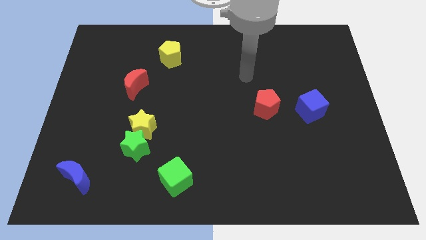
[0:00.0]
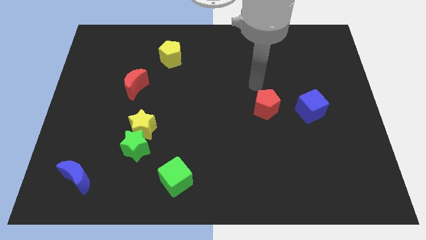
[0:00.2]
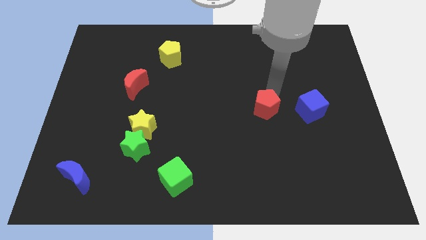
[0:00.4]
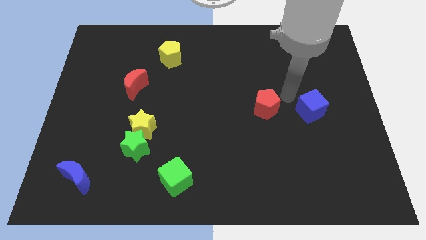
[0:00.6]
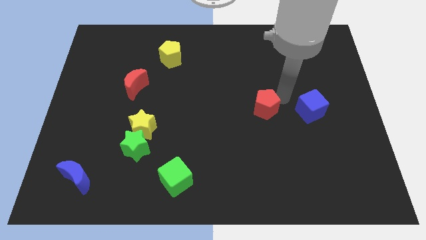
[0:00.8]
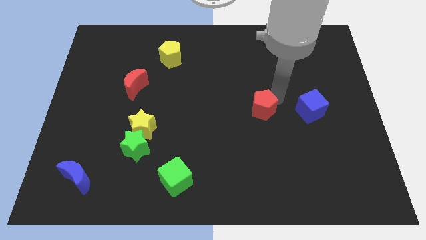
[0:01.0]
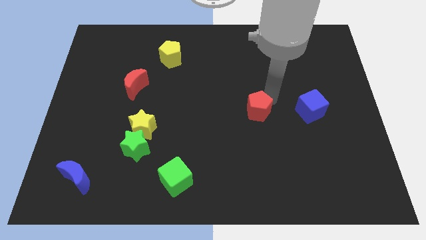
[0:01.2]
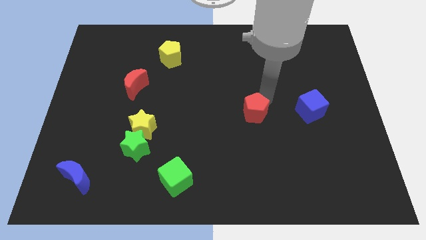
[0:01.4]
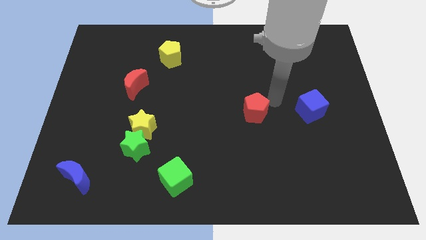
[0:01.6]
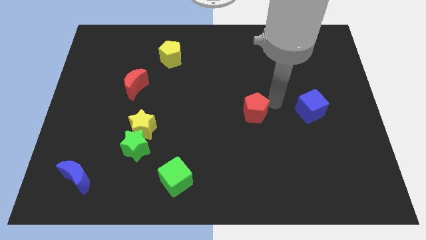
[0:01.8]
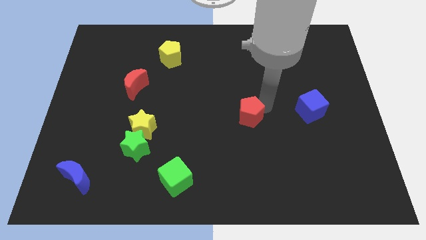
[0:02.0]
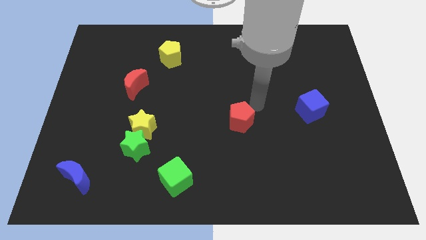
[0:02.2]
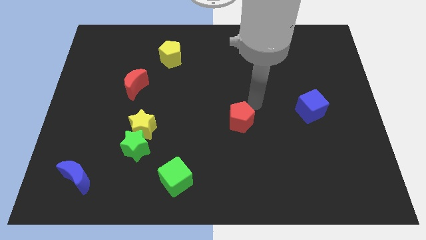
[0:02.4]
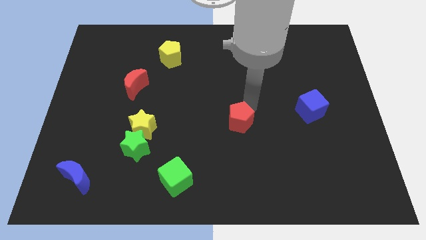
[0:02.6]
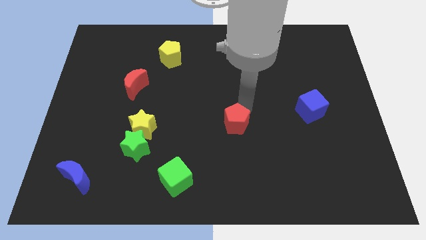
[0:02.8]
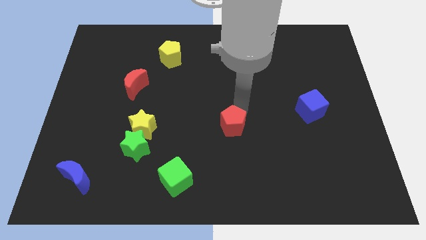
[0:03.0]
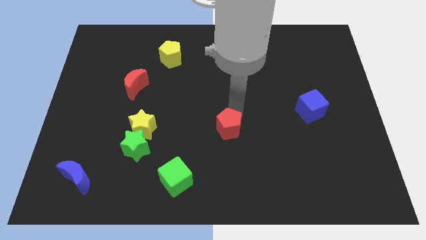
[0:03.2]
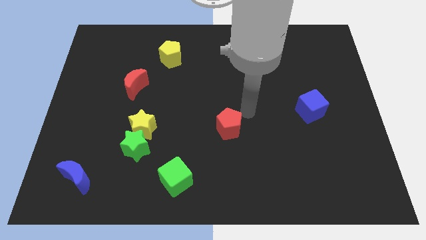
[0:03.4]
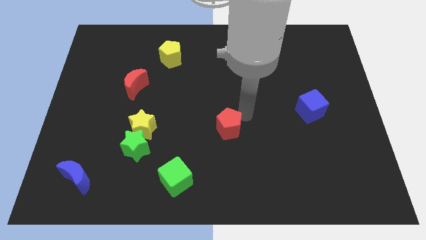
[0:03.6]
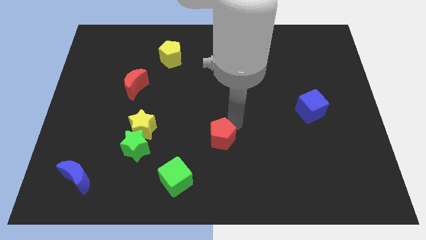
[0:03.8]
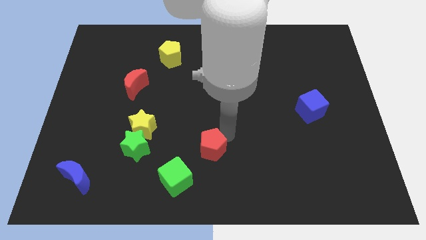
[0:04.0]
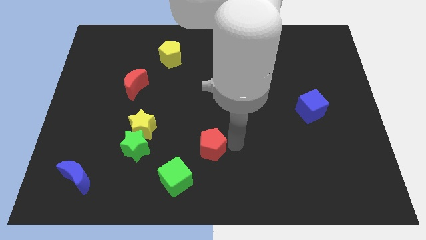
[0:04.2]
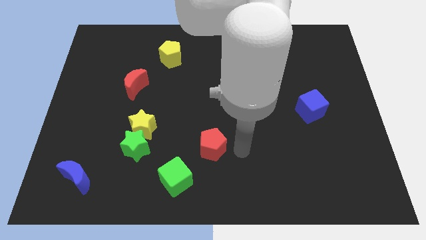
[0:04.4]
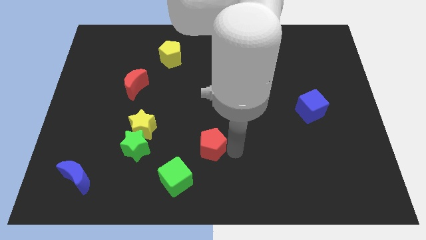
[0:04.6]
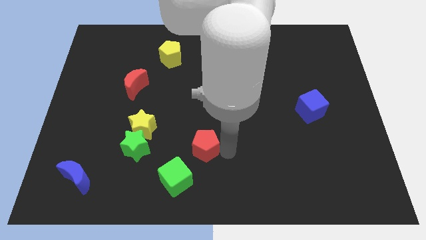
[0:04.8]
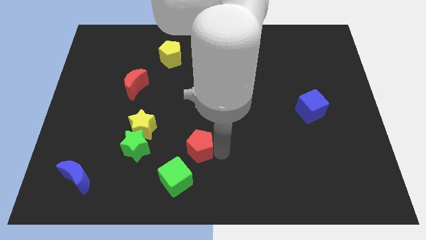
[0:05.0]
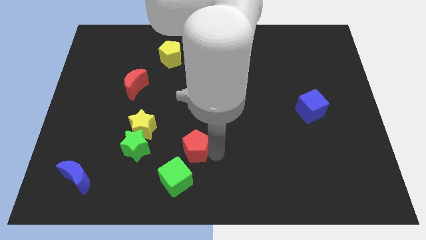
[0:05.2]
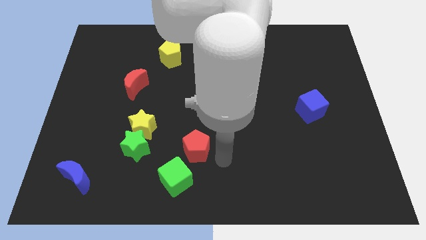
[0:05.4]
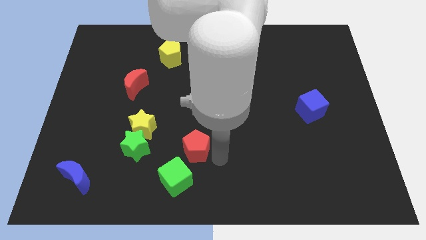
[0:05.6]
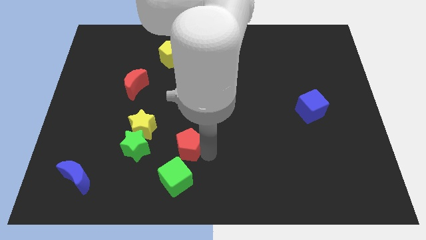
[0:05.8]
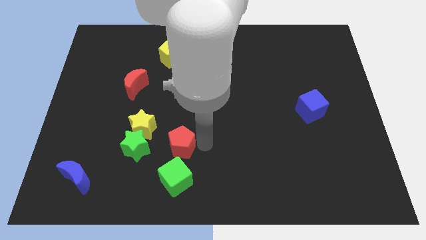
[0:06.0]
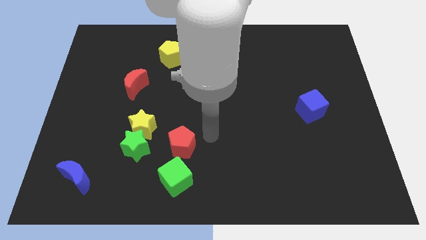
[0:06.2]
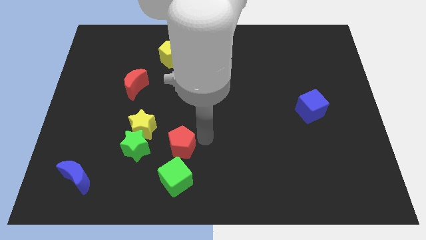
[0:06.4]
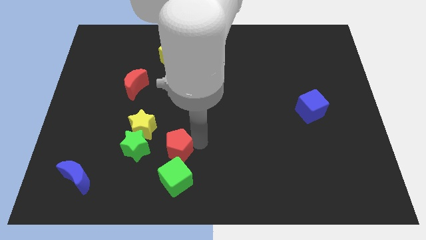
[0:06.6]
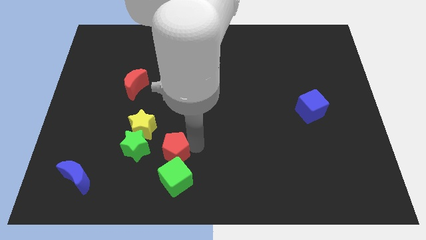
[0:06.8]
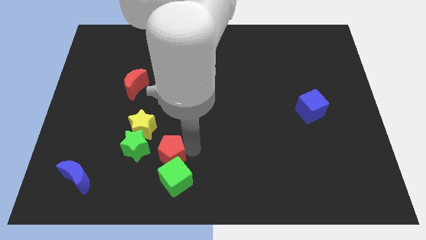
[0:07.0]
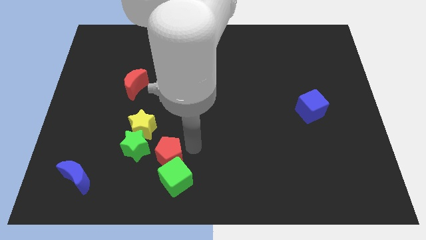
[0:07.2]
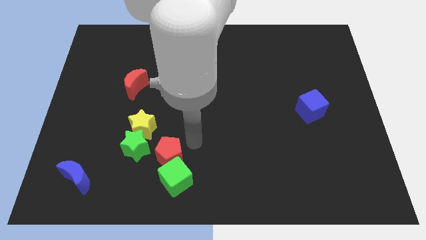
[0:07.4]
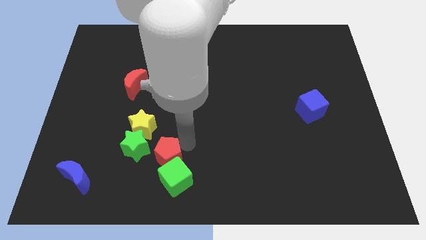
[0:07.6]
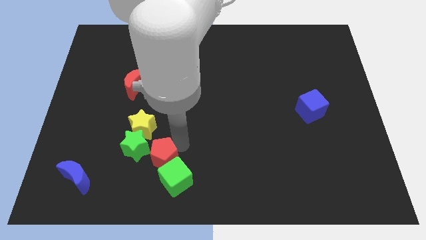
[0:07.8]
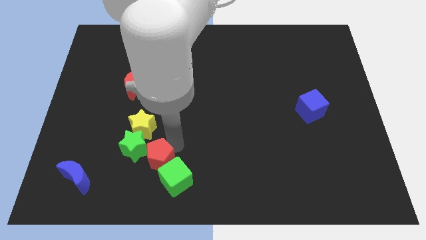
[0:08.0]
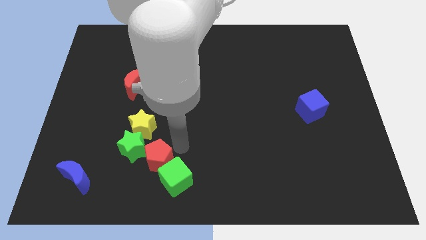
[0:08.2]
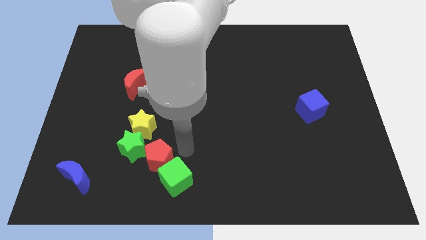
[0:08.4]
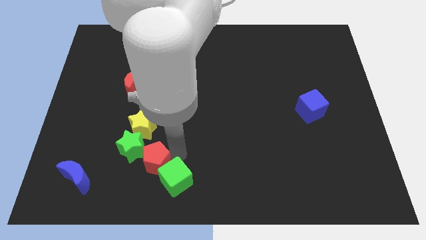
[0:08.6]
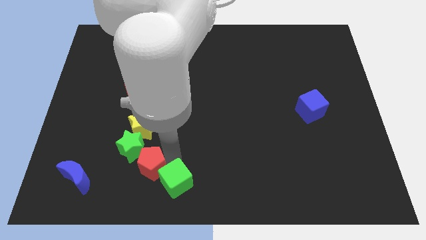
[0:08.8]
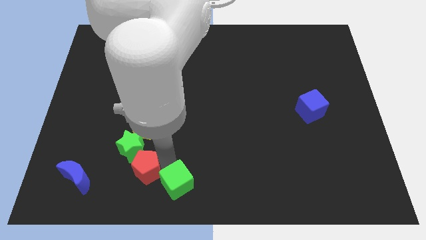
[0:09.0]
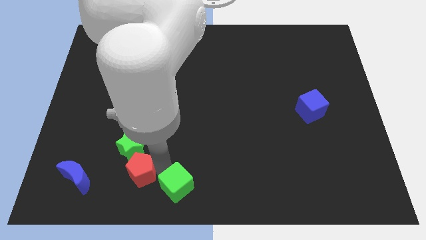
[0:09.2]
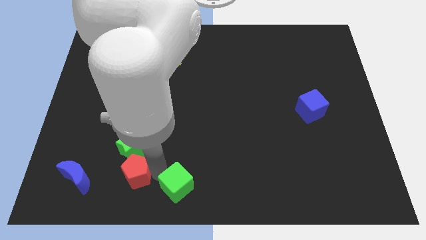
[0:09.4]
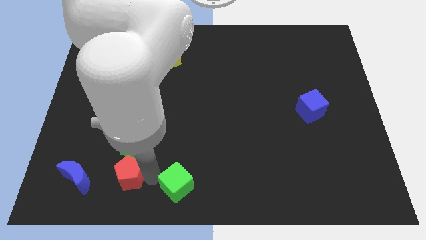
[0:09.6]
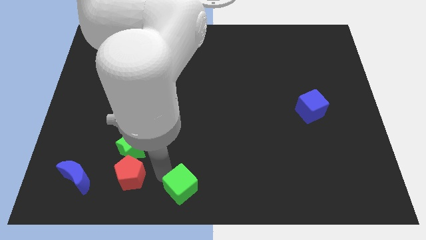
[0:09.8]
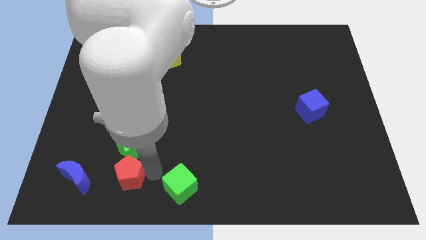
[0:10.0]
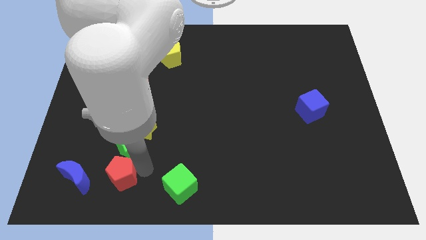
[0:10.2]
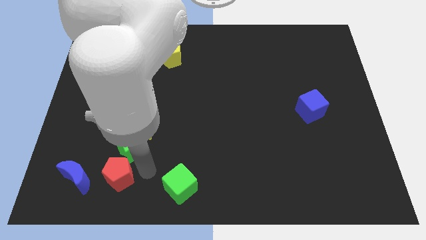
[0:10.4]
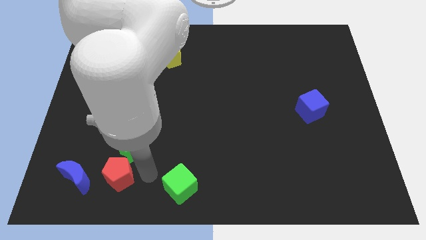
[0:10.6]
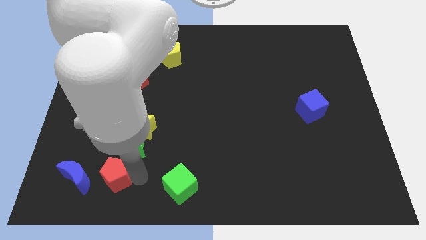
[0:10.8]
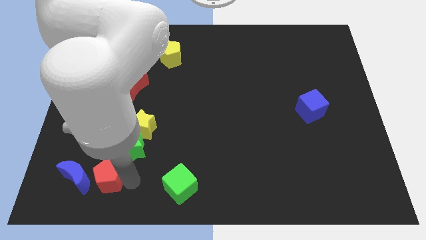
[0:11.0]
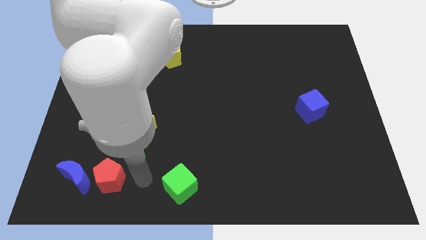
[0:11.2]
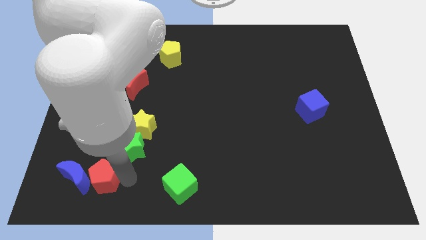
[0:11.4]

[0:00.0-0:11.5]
slide the red pentagon towards the blue moon
